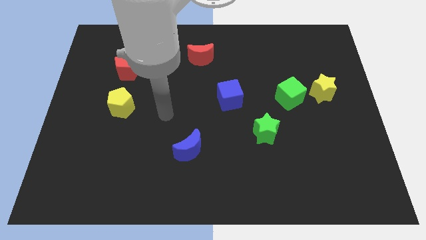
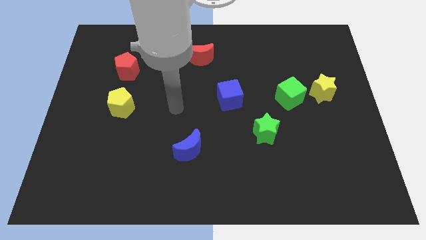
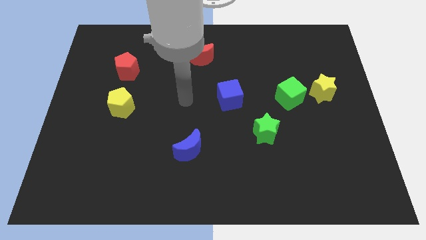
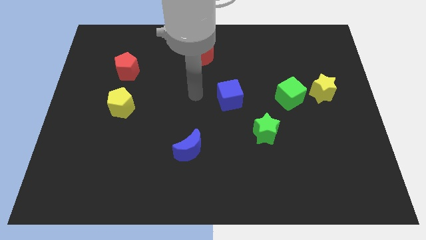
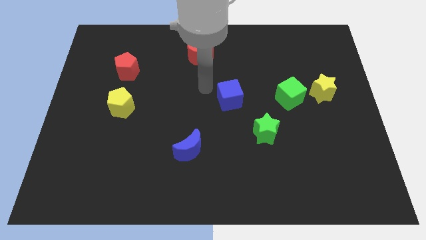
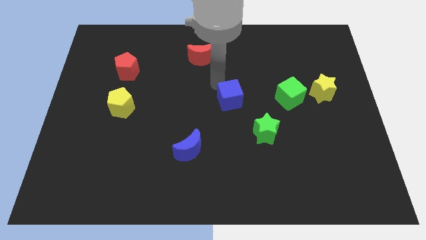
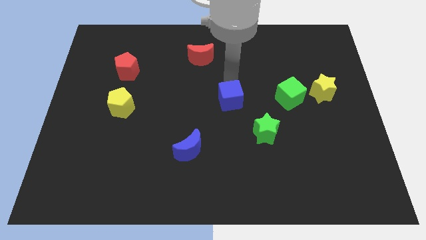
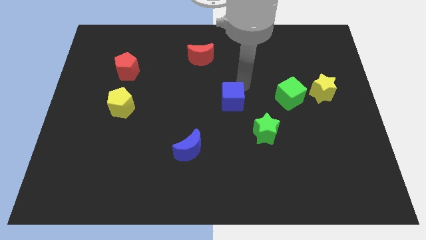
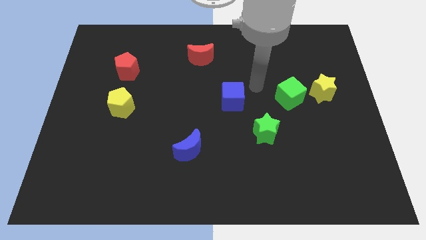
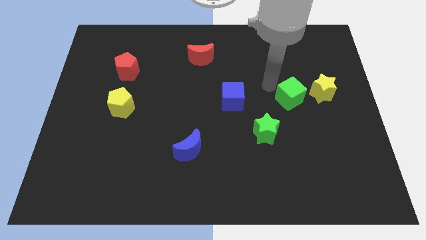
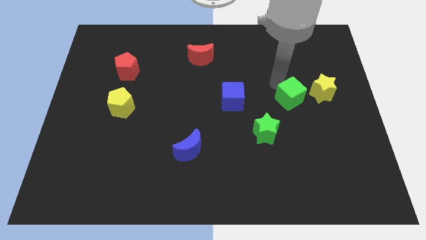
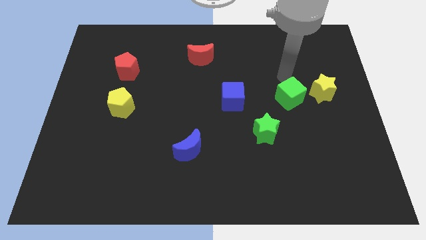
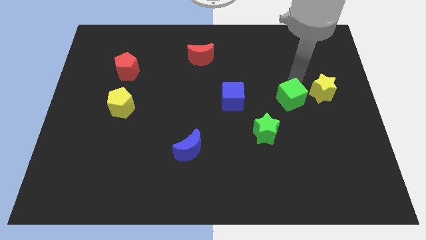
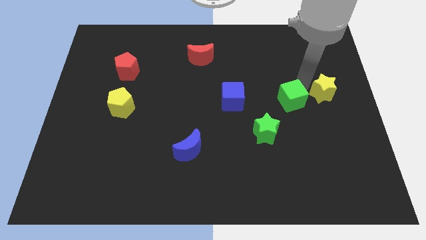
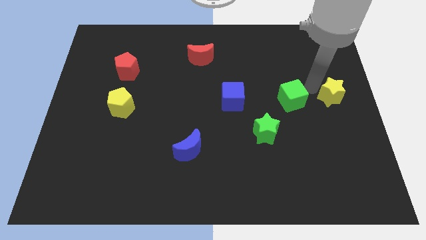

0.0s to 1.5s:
separate the green cube from the yellow star

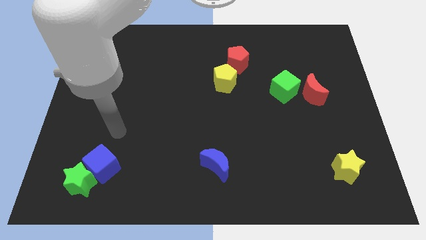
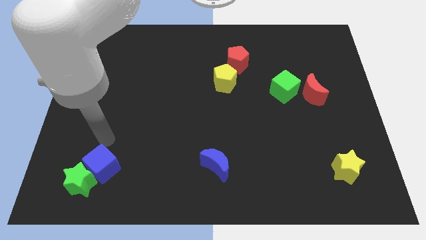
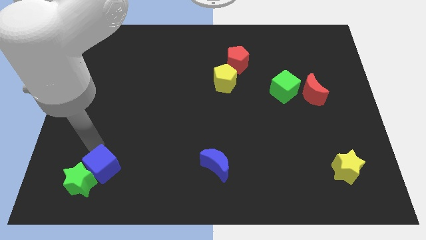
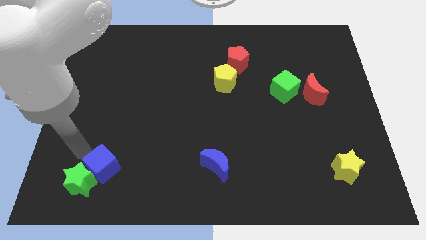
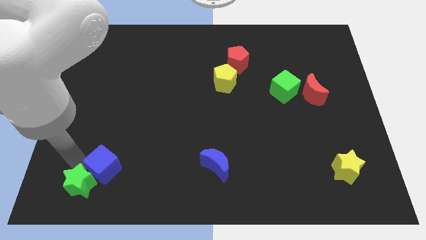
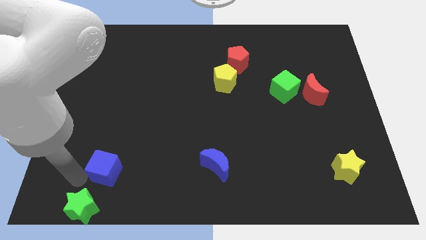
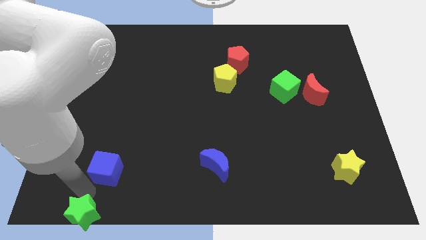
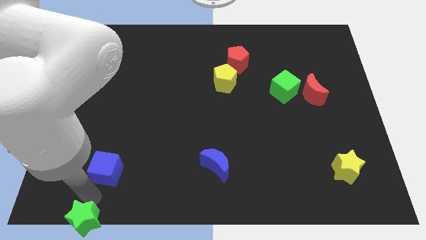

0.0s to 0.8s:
pull the blue cube apart from the green star

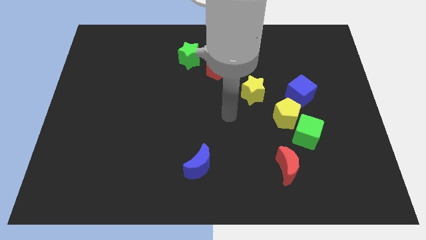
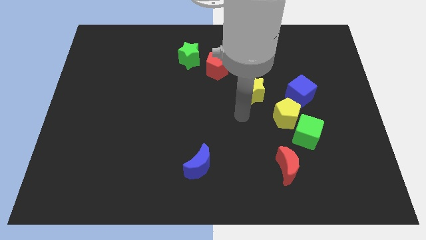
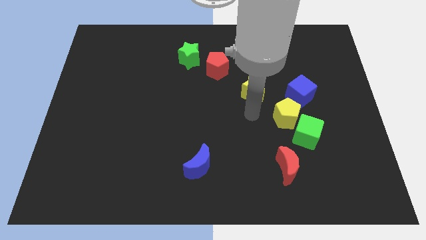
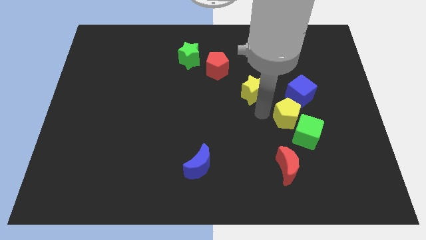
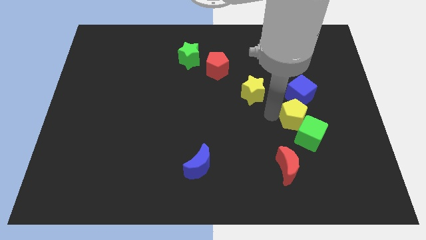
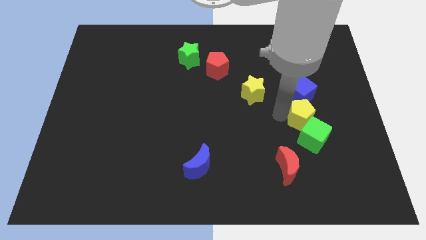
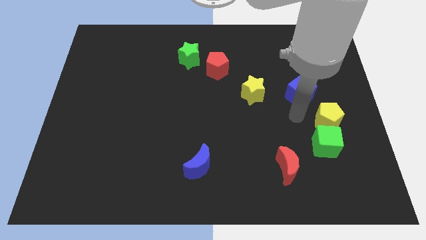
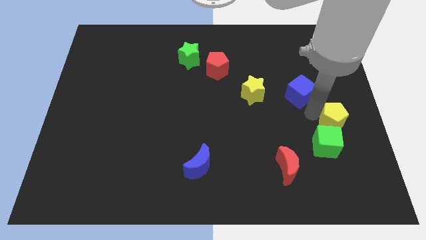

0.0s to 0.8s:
pull the blue cube apart from the yellow pentagon

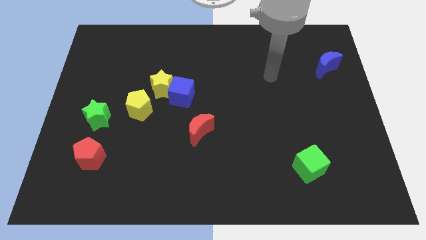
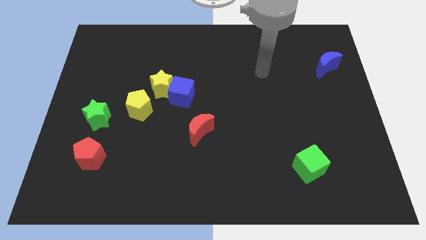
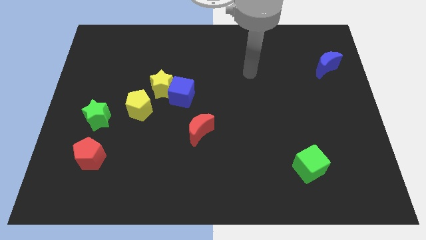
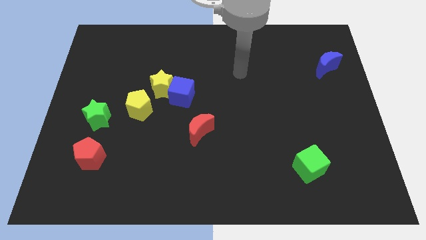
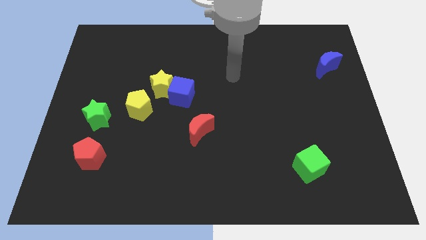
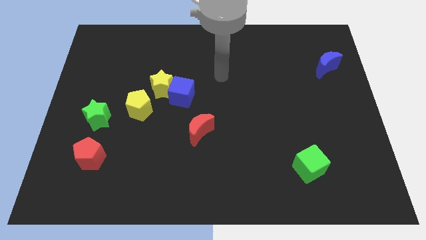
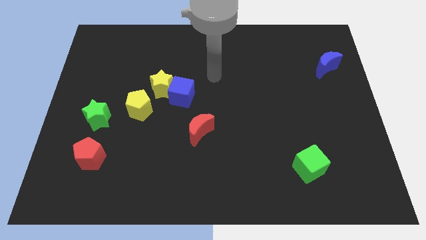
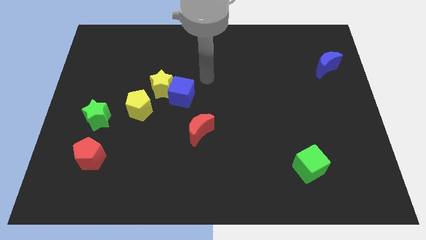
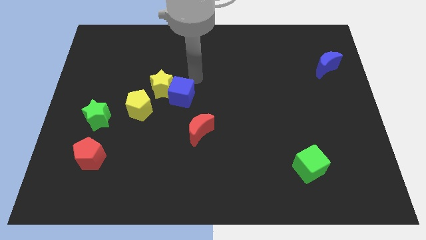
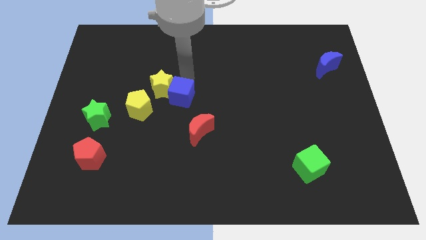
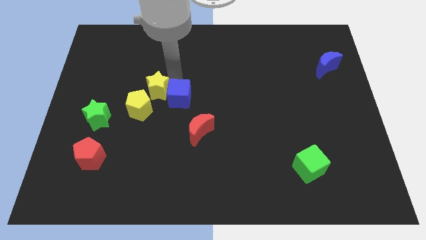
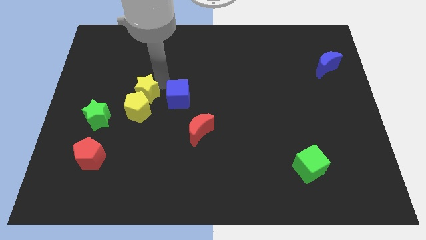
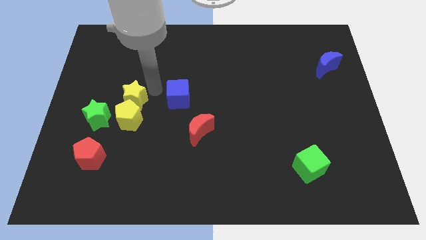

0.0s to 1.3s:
pull the blue cube apart from the yellow star

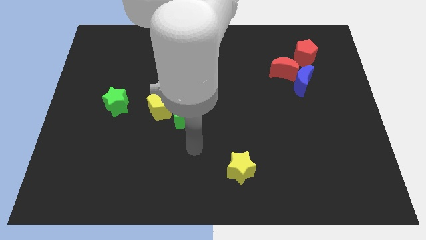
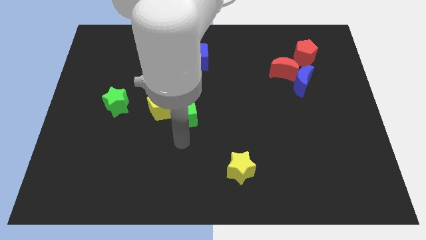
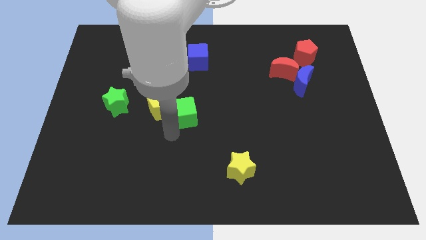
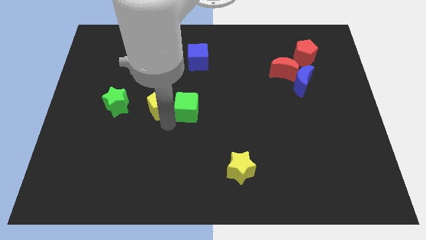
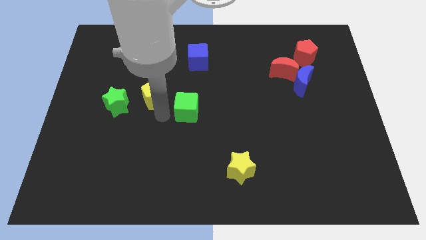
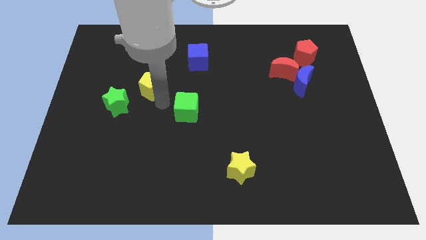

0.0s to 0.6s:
pull the green cube apart from the yellow pentagon

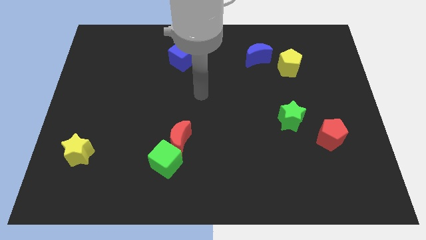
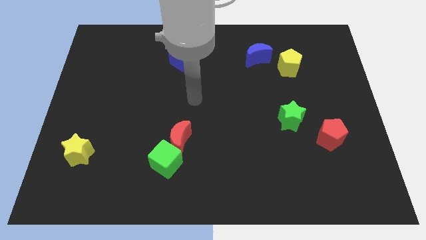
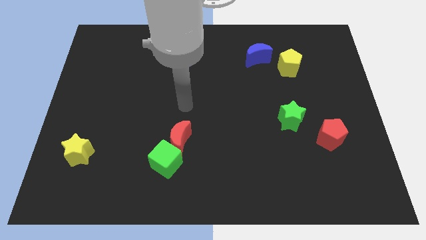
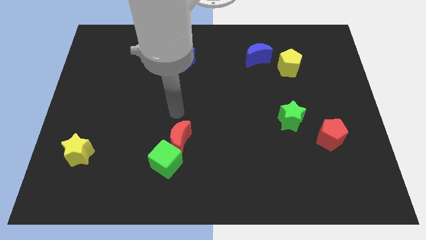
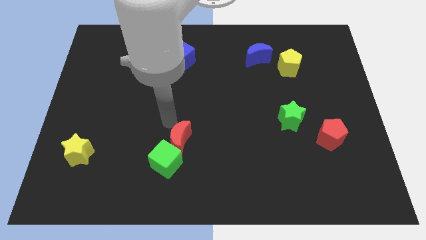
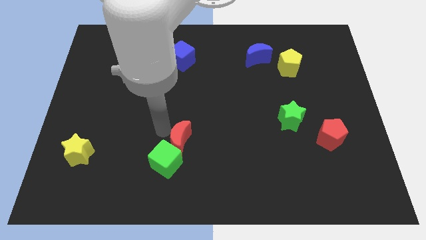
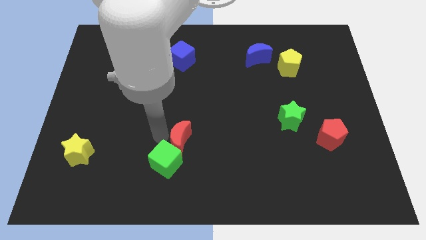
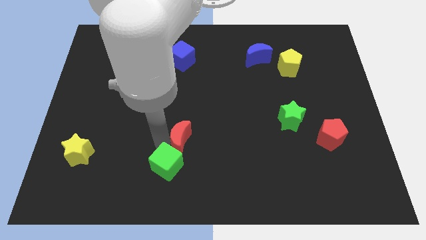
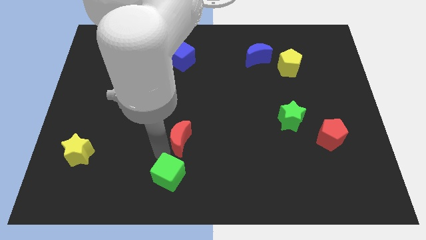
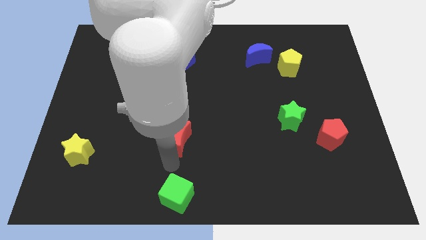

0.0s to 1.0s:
pull the red moon apart from the green cube

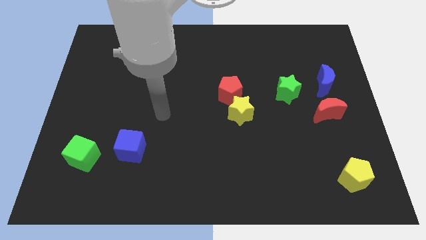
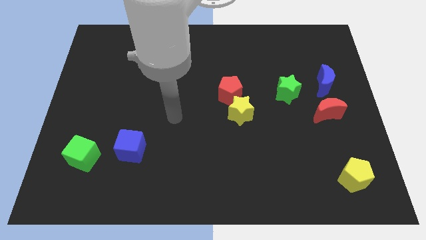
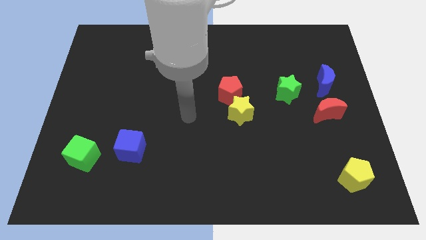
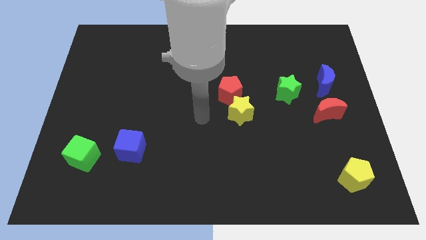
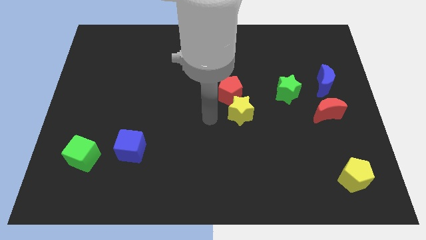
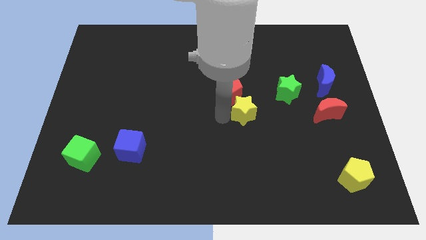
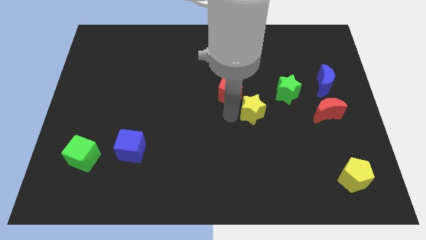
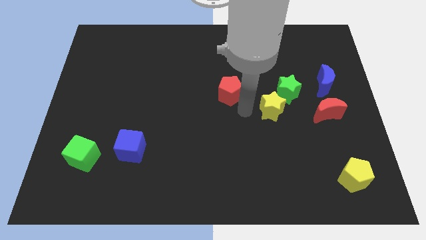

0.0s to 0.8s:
move the red pentagon away from the yellow star

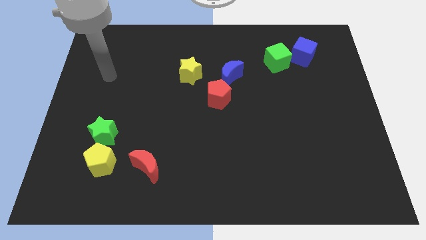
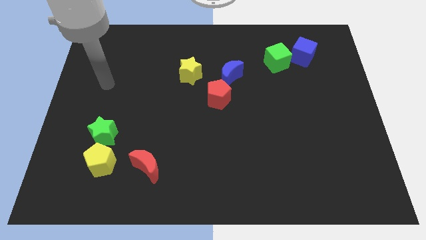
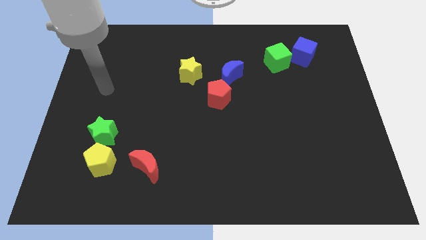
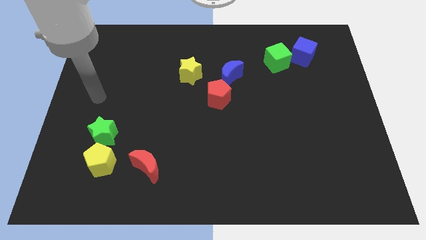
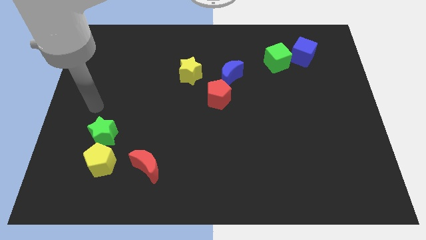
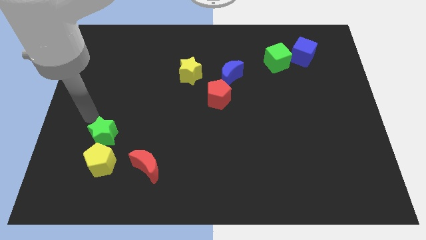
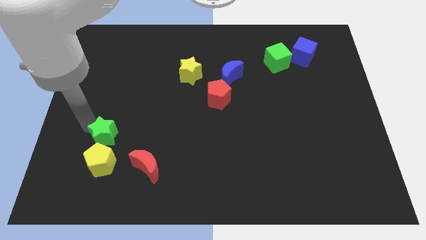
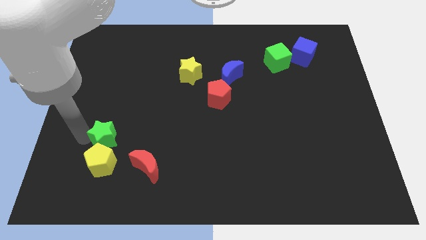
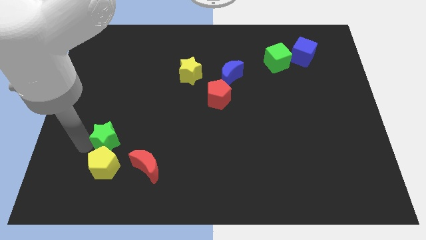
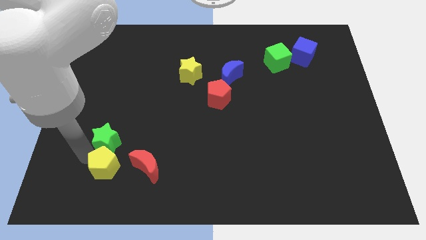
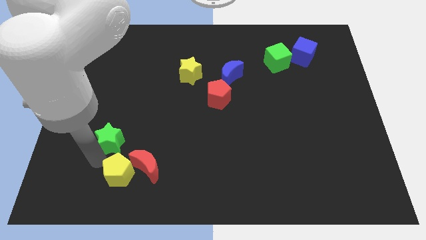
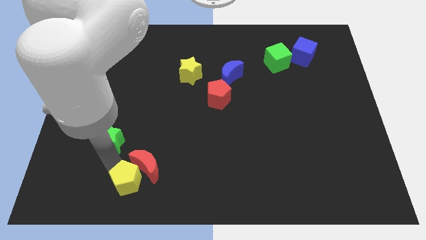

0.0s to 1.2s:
pull the green star apart from the yellow pentagon

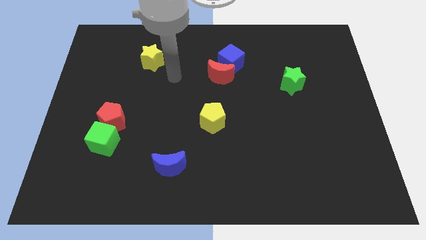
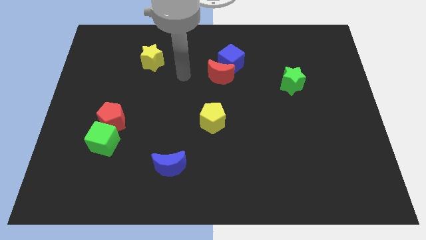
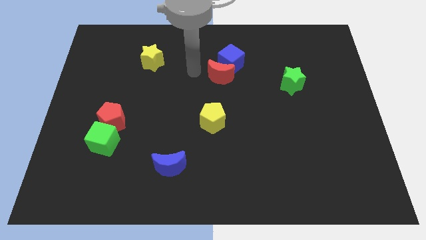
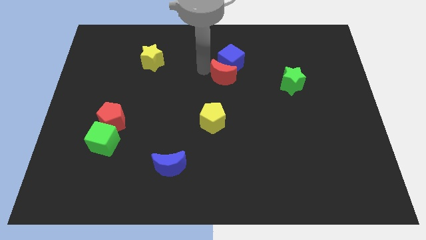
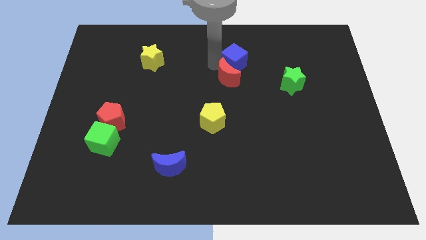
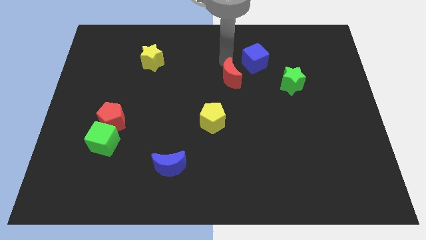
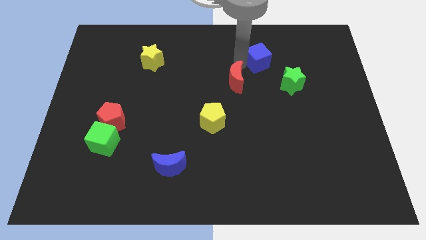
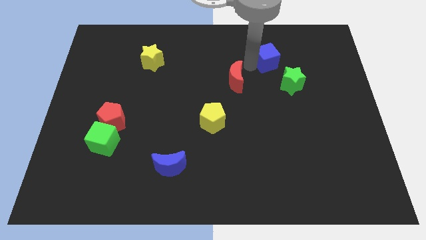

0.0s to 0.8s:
pull the red moon apart from the blue cube

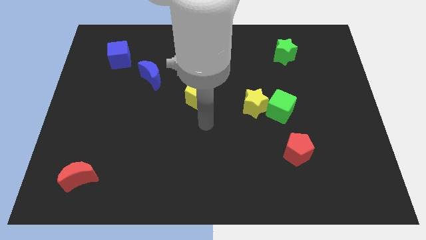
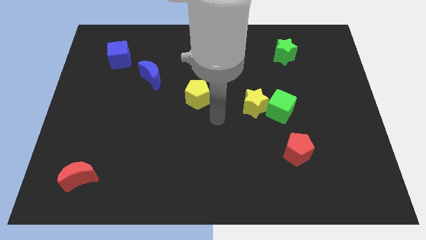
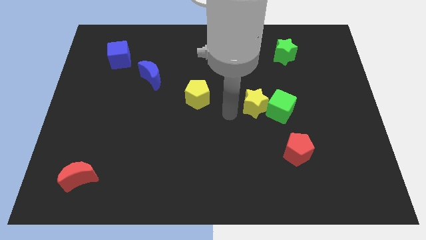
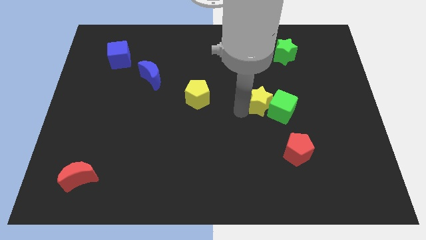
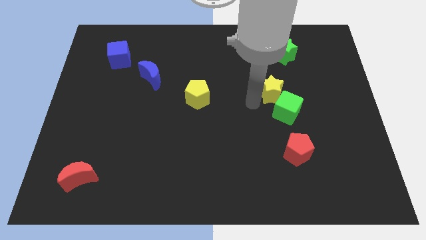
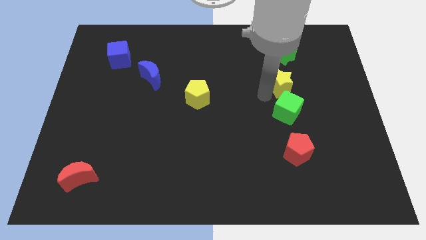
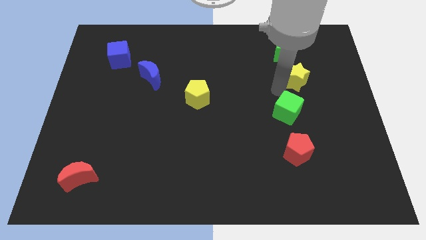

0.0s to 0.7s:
pull the green cube apart from the yellow star
